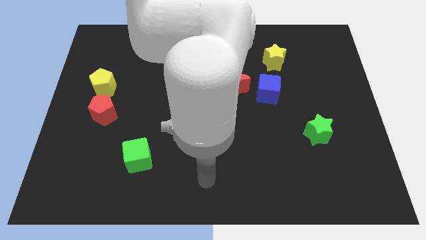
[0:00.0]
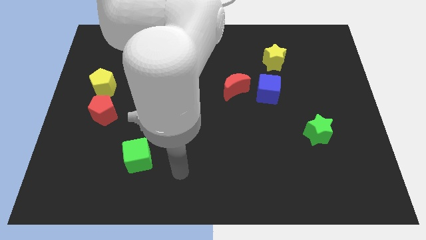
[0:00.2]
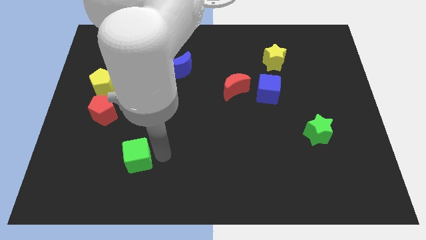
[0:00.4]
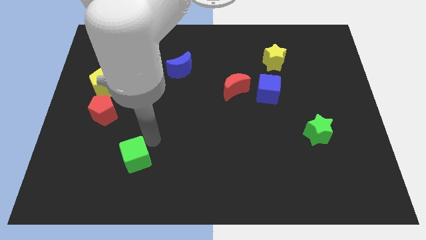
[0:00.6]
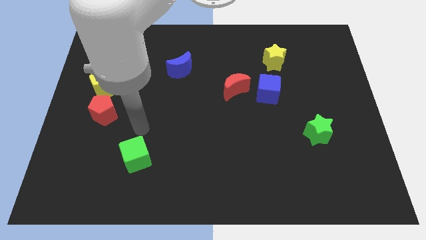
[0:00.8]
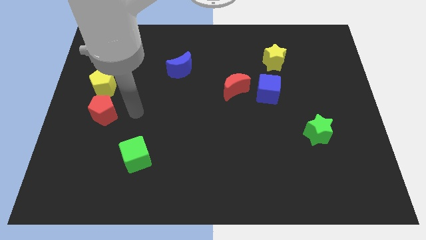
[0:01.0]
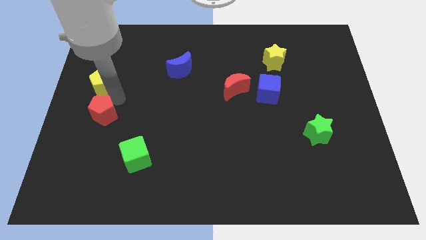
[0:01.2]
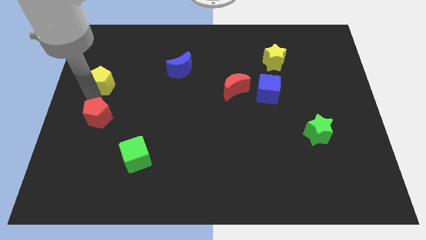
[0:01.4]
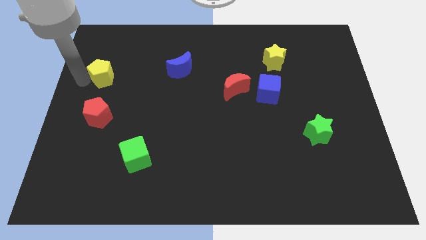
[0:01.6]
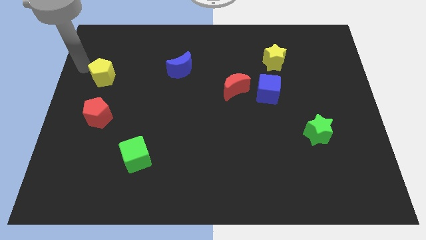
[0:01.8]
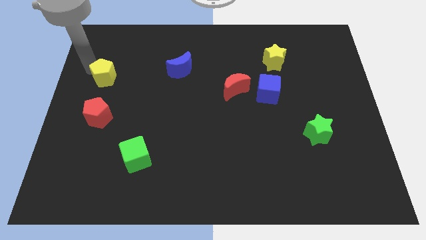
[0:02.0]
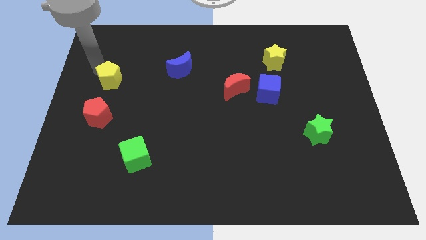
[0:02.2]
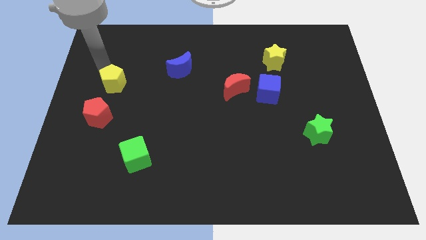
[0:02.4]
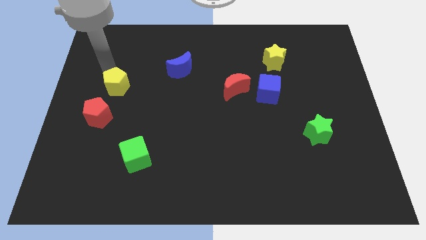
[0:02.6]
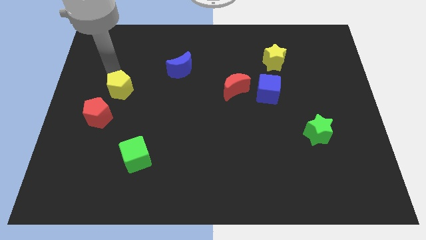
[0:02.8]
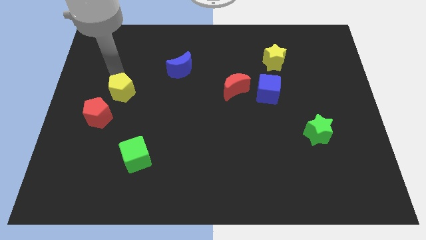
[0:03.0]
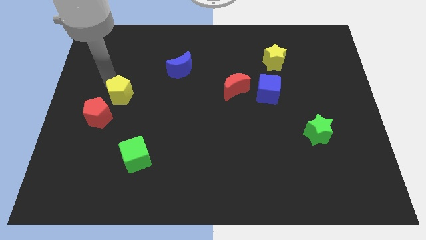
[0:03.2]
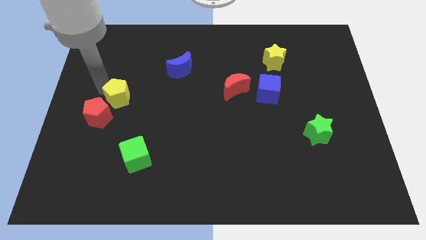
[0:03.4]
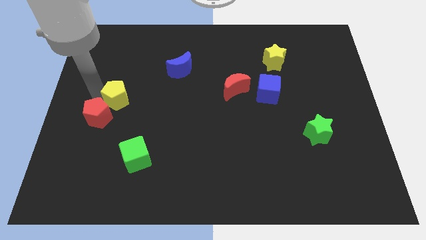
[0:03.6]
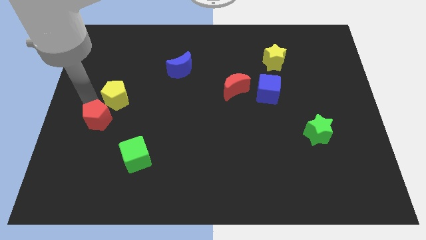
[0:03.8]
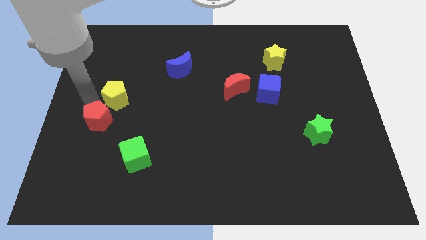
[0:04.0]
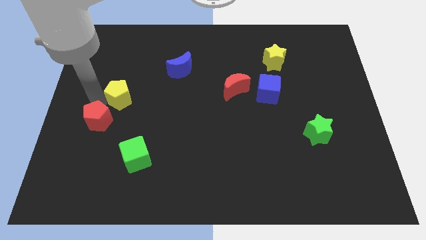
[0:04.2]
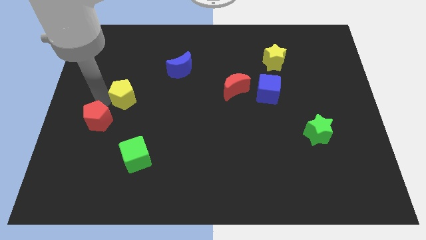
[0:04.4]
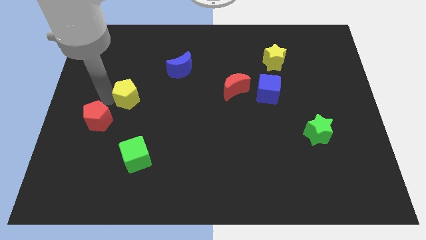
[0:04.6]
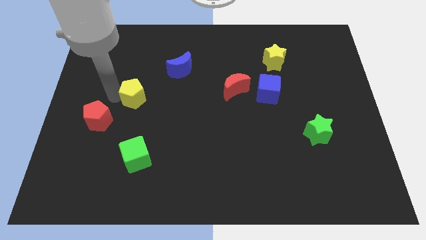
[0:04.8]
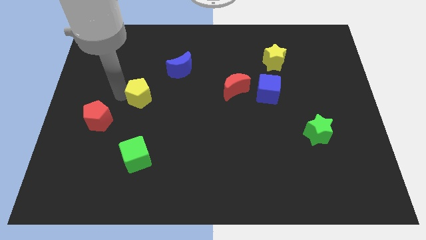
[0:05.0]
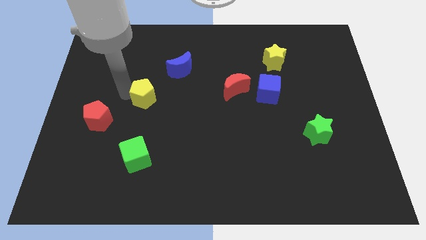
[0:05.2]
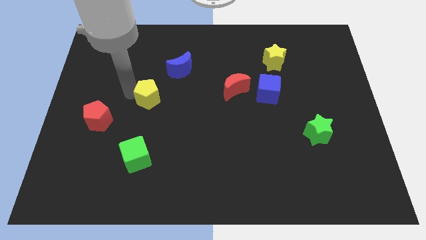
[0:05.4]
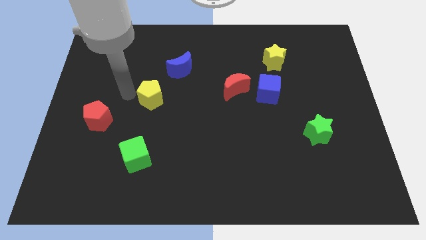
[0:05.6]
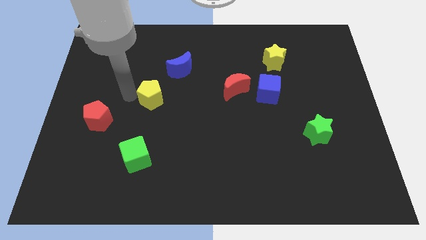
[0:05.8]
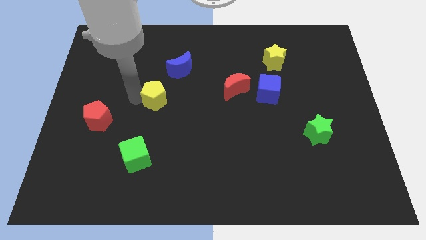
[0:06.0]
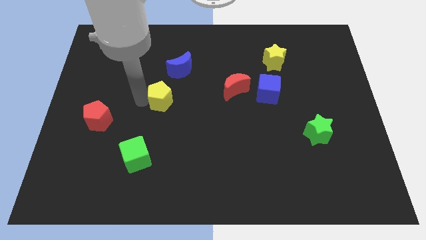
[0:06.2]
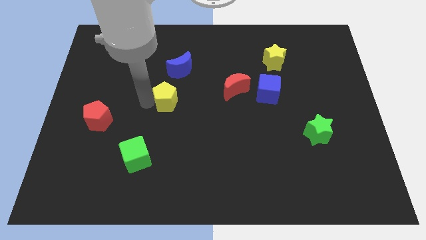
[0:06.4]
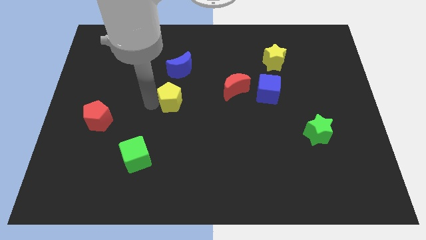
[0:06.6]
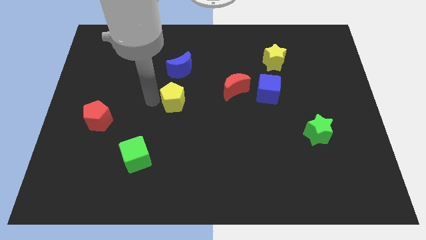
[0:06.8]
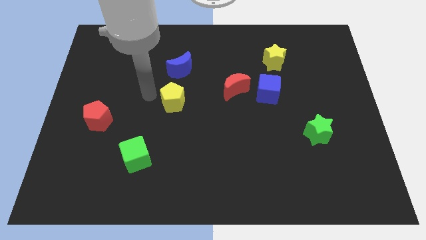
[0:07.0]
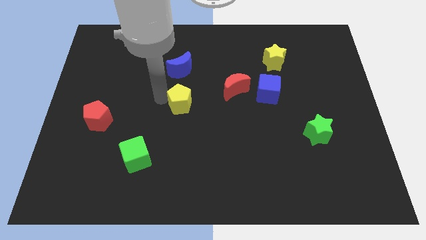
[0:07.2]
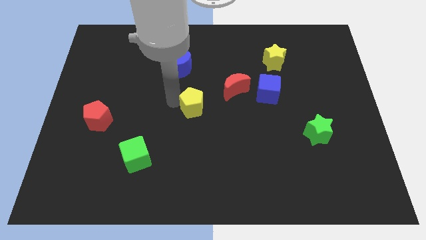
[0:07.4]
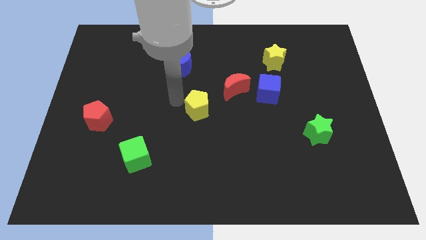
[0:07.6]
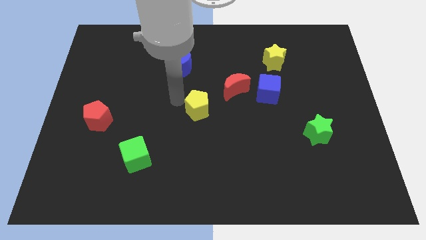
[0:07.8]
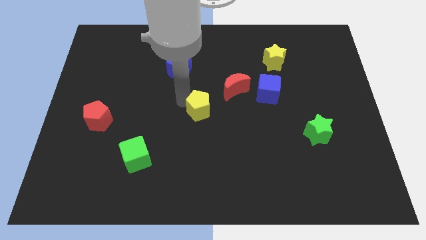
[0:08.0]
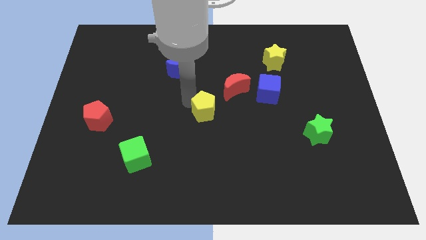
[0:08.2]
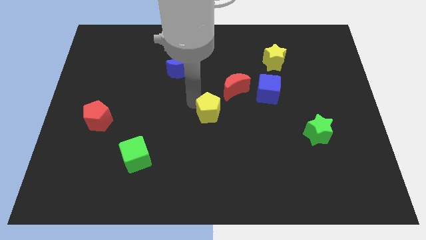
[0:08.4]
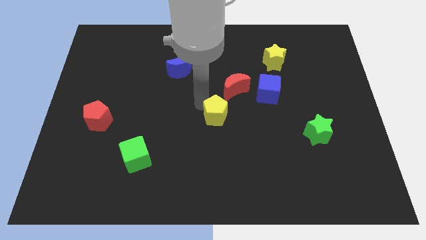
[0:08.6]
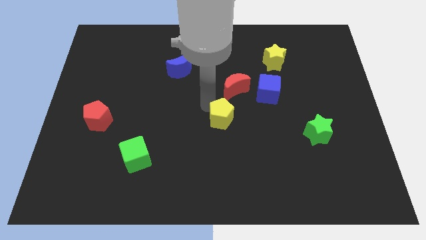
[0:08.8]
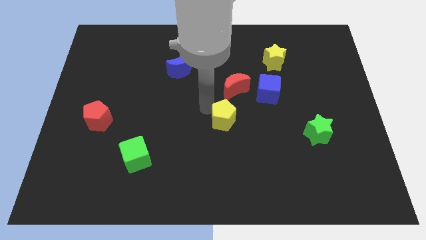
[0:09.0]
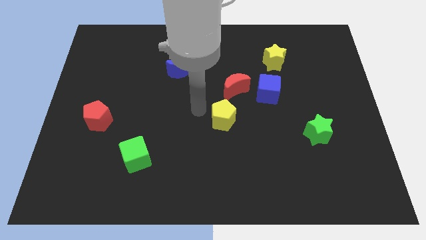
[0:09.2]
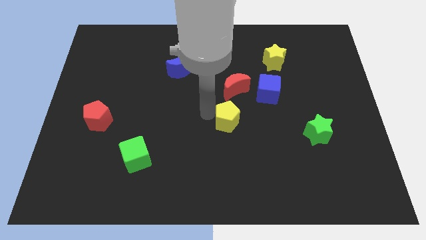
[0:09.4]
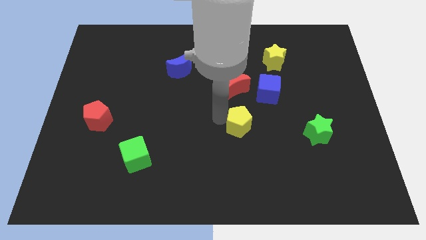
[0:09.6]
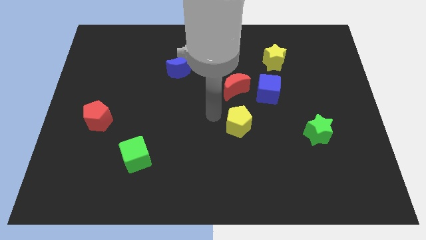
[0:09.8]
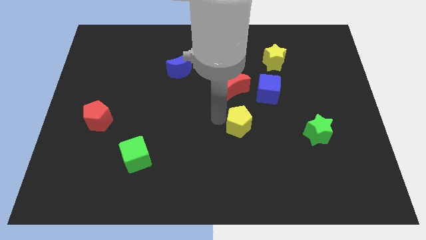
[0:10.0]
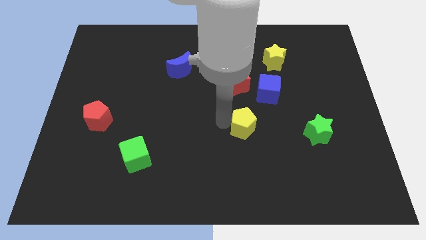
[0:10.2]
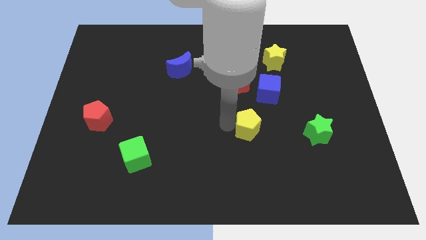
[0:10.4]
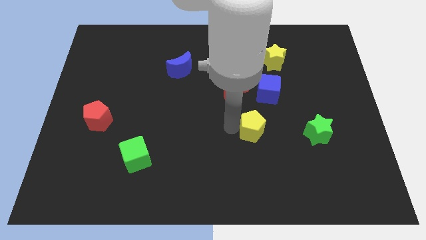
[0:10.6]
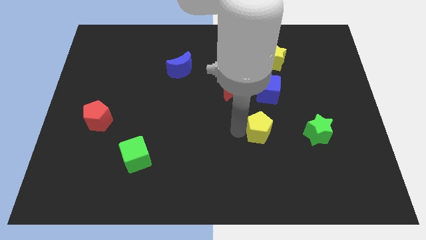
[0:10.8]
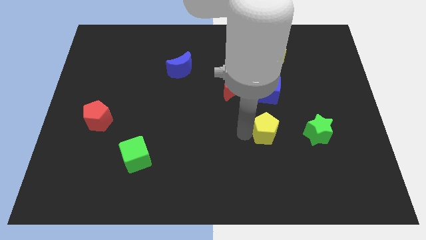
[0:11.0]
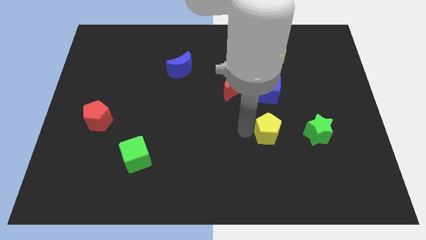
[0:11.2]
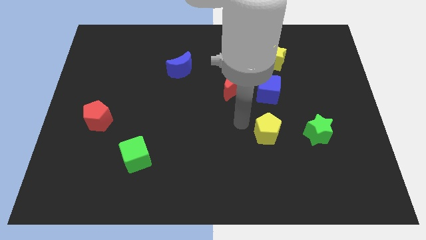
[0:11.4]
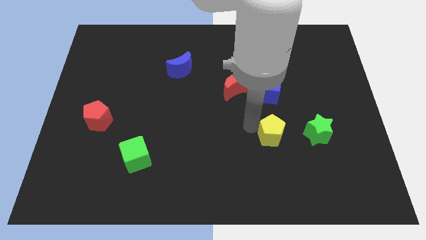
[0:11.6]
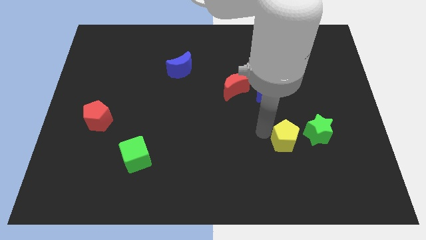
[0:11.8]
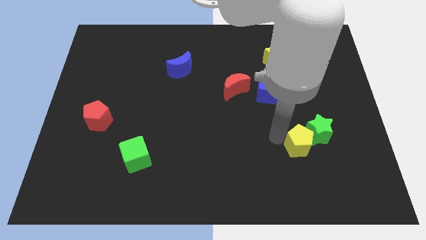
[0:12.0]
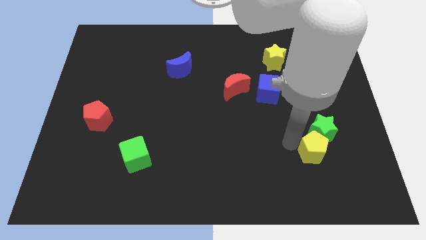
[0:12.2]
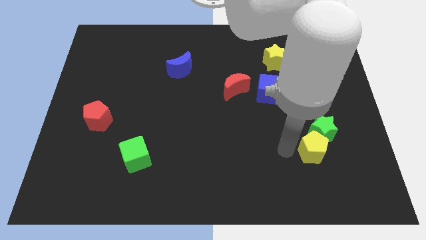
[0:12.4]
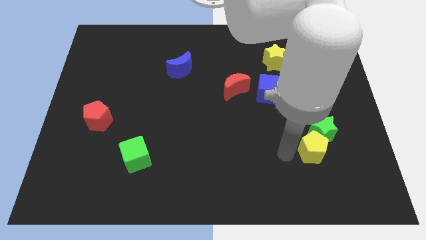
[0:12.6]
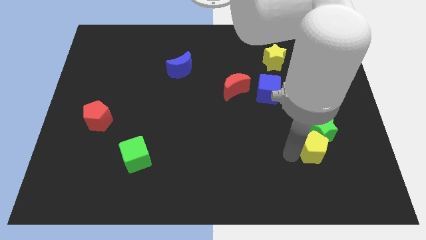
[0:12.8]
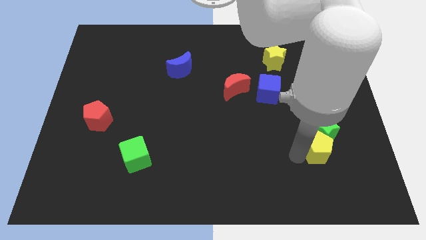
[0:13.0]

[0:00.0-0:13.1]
slide the yellow pentagon diagonally down and to the right of the green star

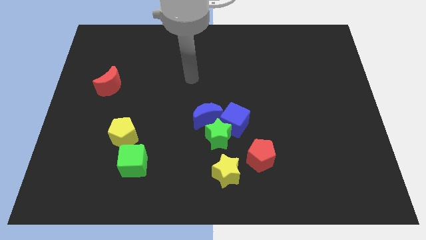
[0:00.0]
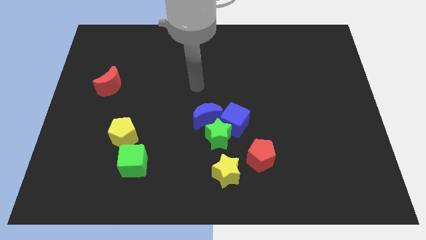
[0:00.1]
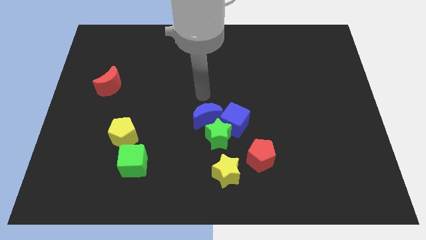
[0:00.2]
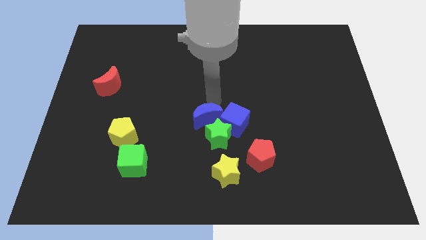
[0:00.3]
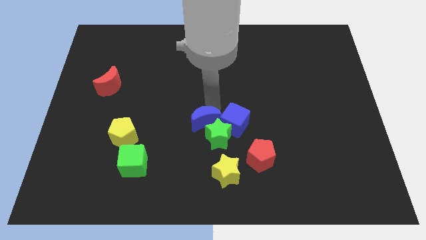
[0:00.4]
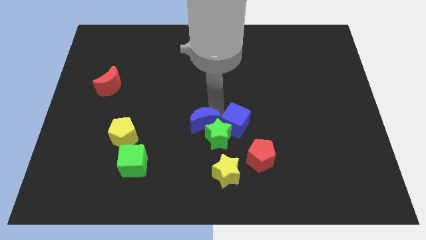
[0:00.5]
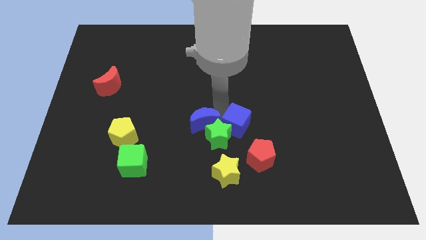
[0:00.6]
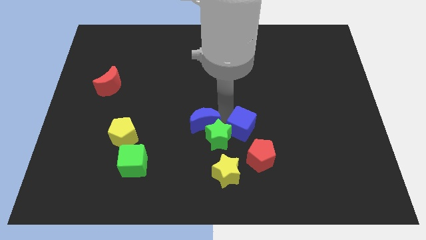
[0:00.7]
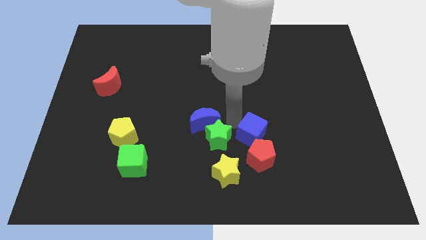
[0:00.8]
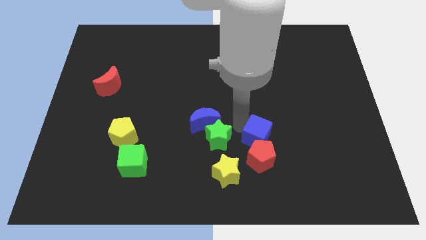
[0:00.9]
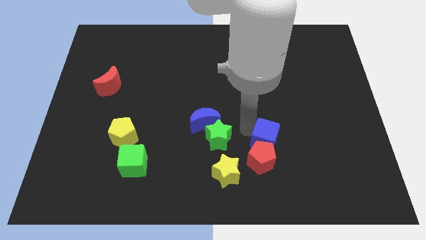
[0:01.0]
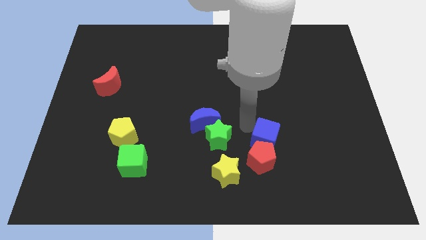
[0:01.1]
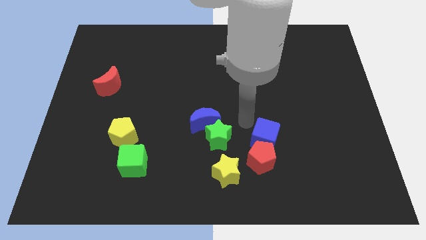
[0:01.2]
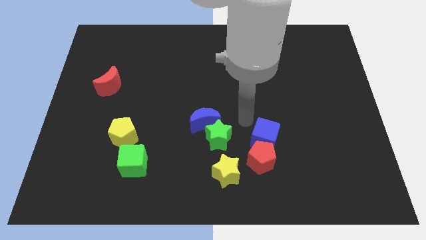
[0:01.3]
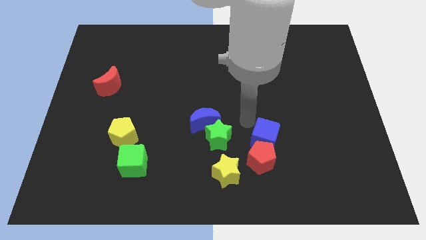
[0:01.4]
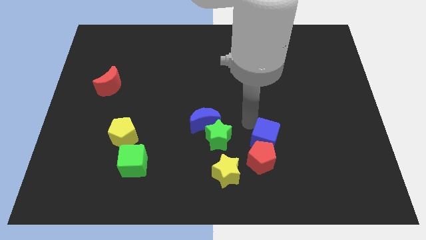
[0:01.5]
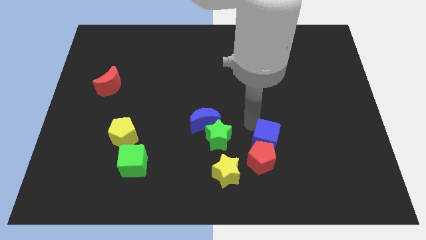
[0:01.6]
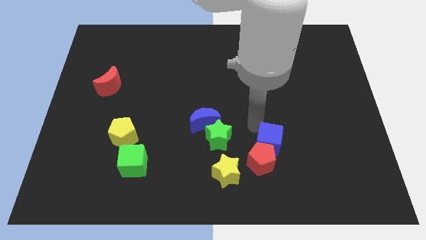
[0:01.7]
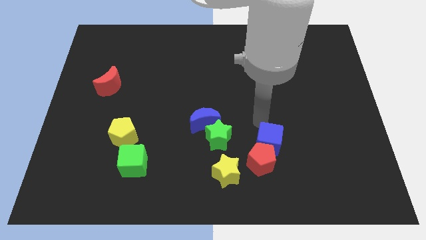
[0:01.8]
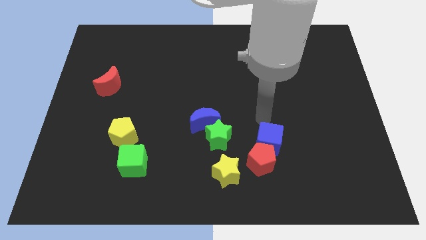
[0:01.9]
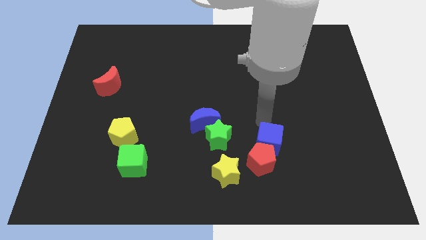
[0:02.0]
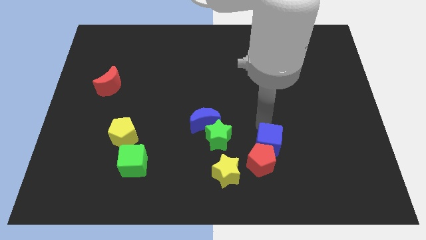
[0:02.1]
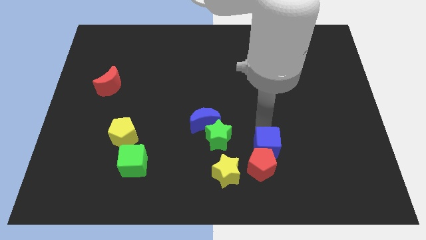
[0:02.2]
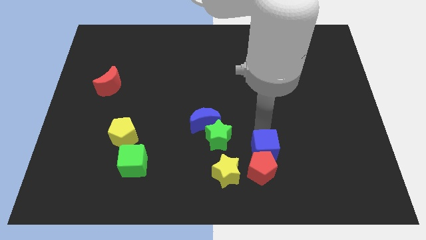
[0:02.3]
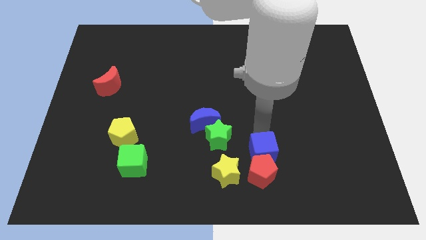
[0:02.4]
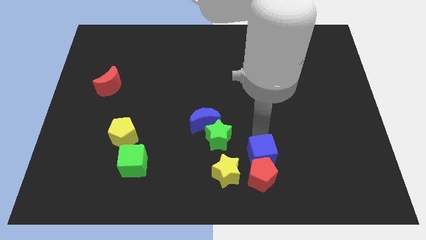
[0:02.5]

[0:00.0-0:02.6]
slide the blue cube right of the yellow star
